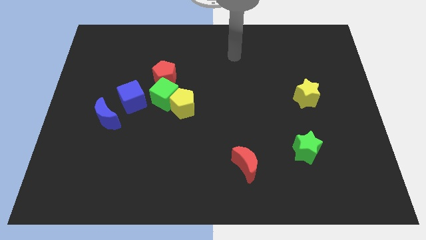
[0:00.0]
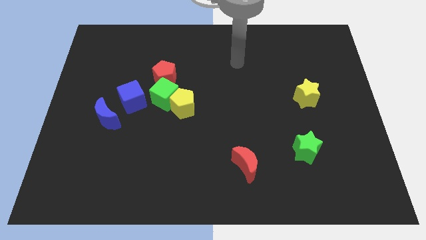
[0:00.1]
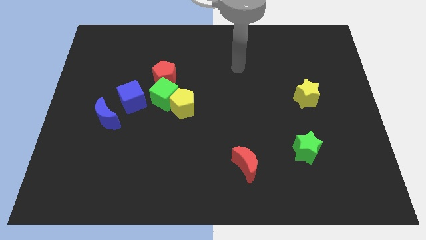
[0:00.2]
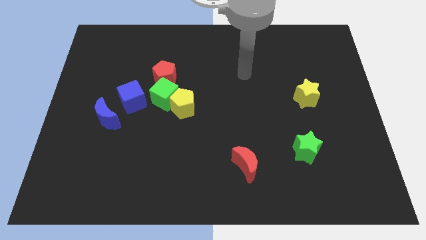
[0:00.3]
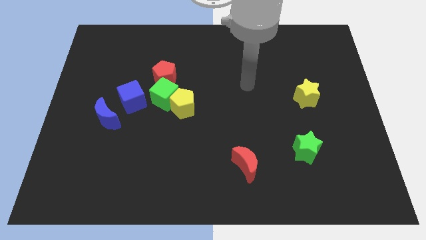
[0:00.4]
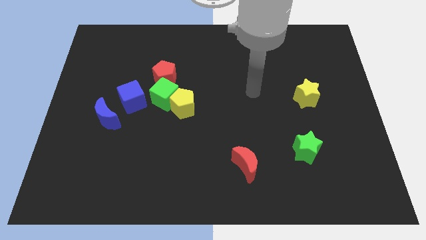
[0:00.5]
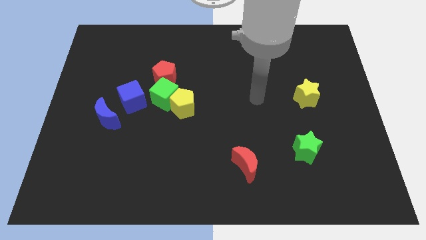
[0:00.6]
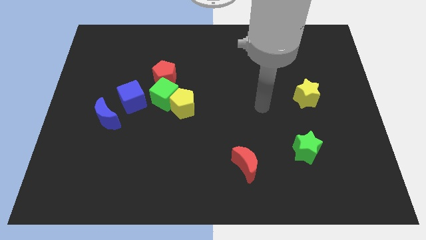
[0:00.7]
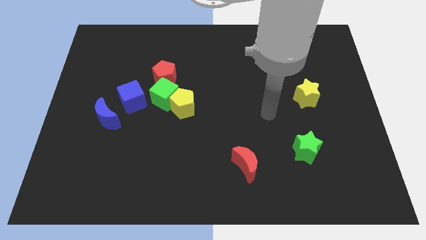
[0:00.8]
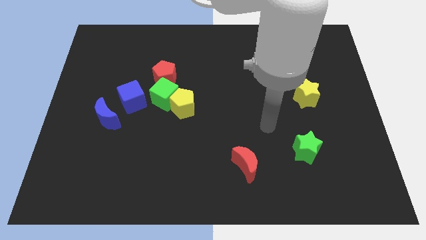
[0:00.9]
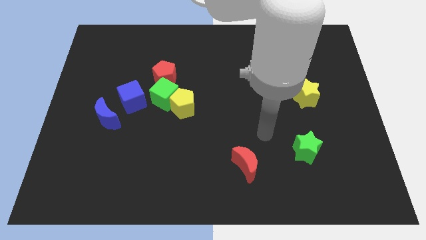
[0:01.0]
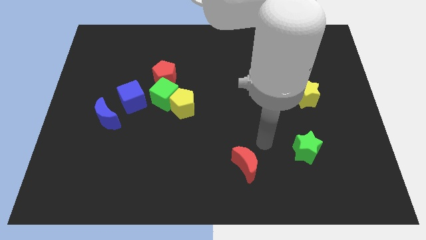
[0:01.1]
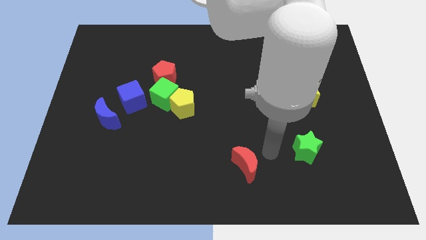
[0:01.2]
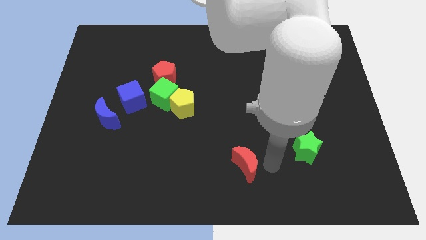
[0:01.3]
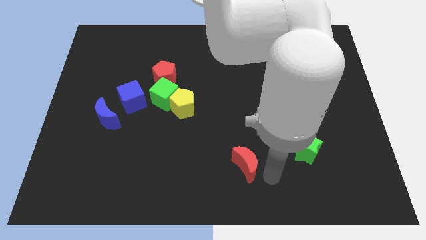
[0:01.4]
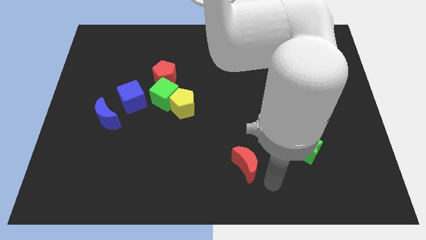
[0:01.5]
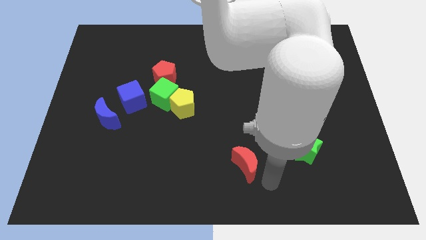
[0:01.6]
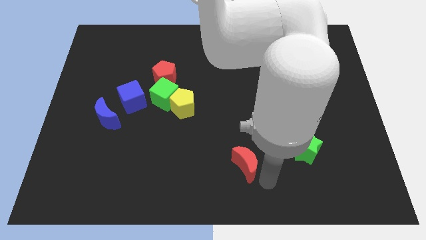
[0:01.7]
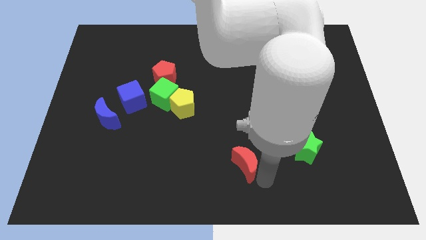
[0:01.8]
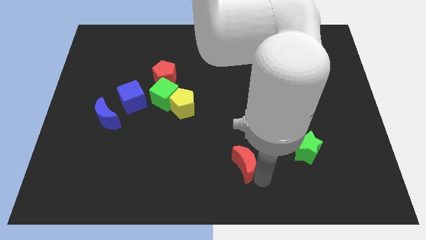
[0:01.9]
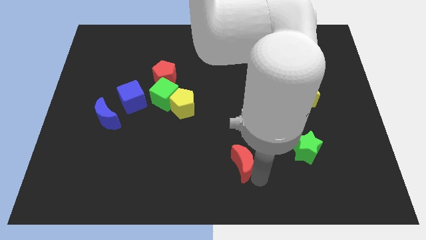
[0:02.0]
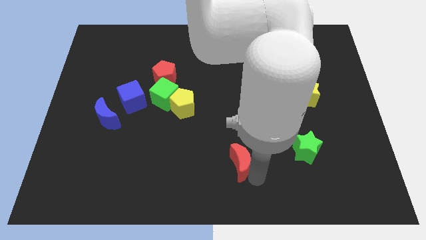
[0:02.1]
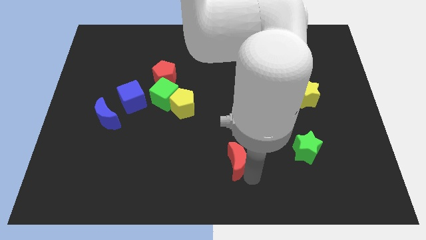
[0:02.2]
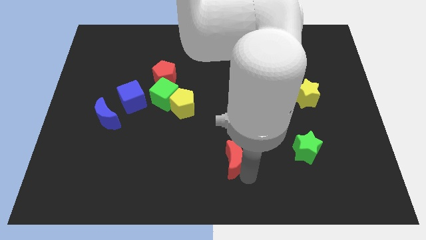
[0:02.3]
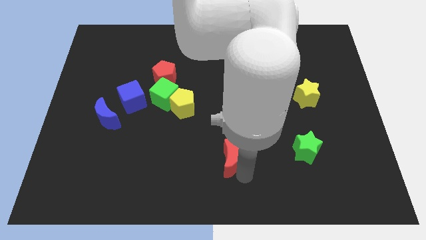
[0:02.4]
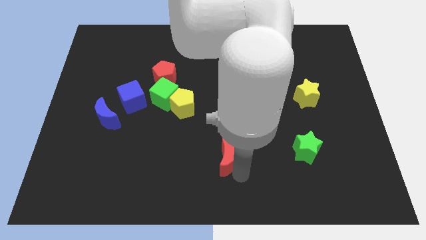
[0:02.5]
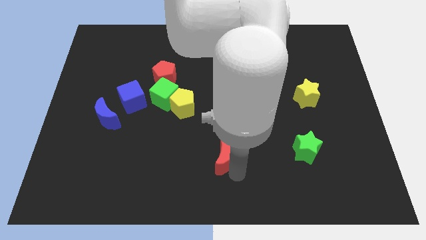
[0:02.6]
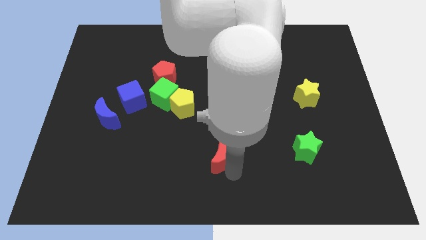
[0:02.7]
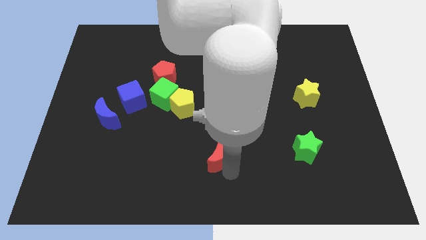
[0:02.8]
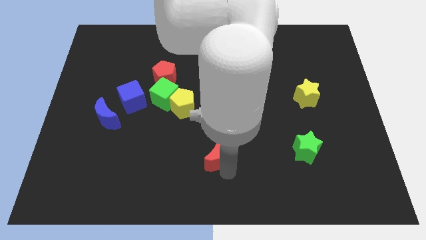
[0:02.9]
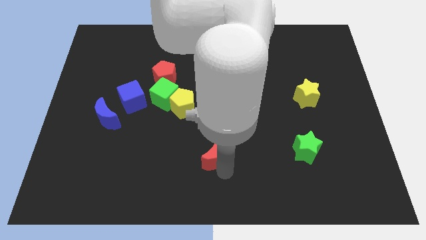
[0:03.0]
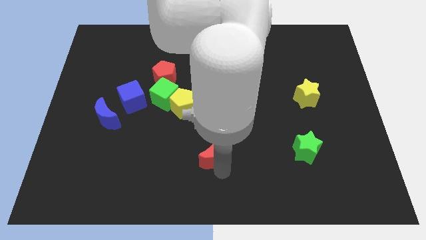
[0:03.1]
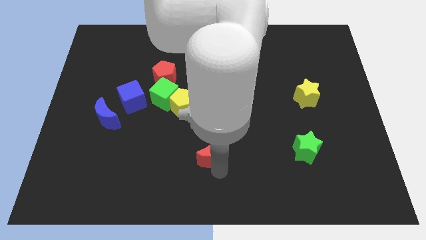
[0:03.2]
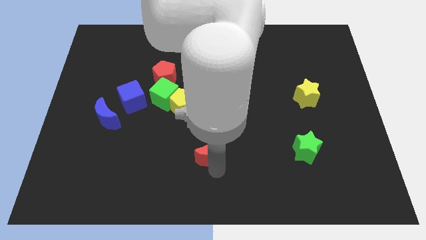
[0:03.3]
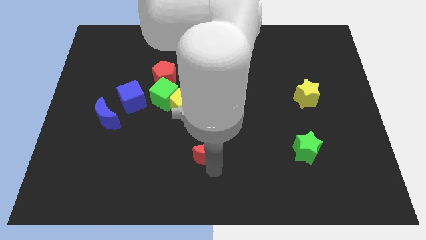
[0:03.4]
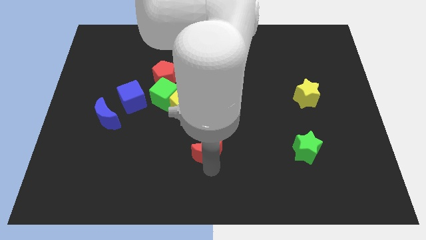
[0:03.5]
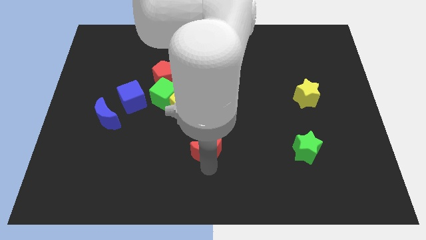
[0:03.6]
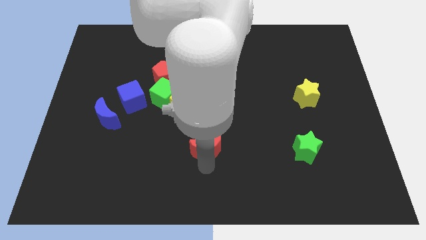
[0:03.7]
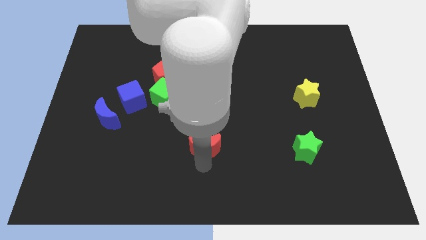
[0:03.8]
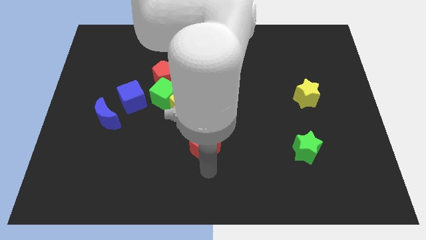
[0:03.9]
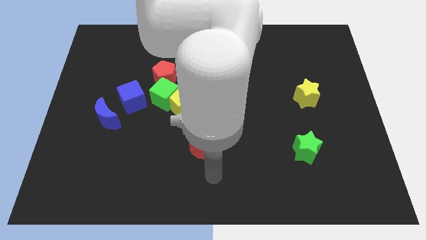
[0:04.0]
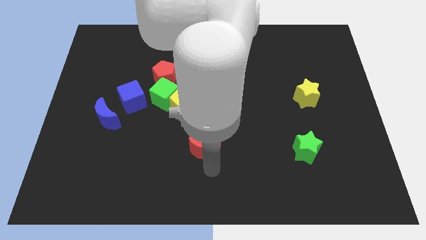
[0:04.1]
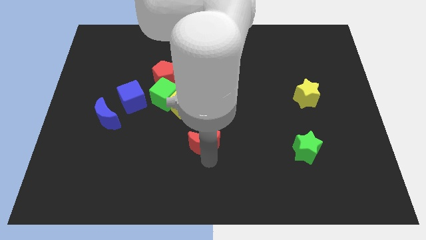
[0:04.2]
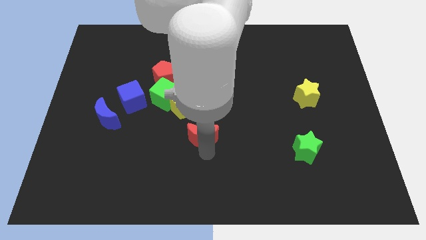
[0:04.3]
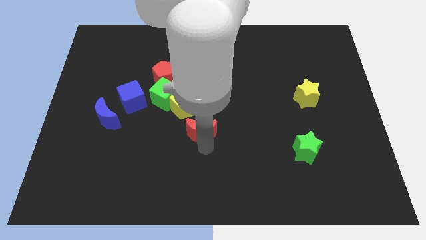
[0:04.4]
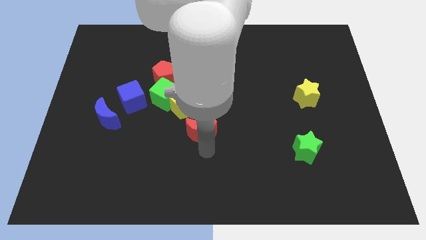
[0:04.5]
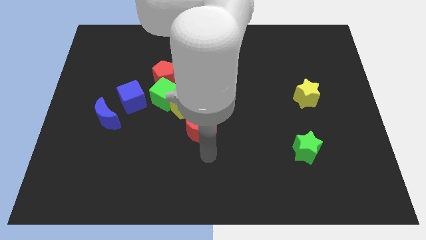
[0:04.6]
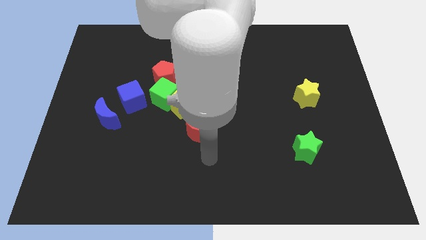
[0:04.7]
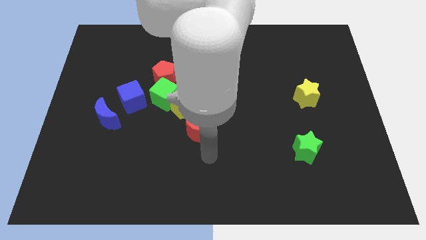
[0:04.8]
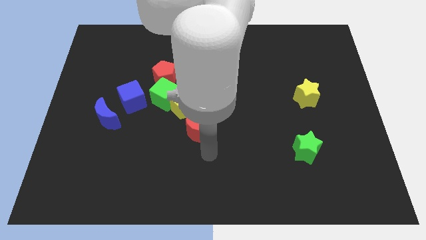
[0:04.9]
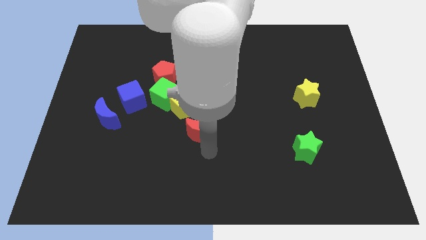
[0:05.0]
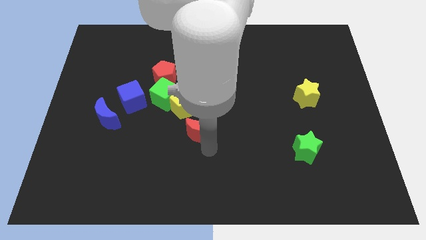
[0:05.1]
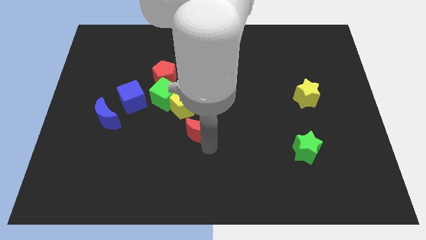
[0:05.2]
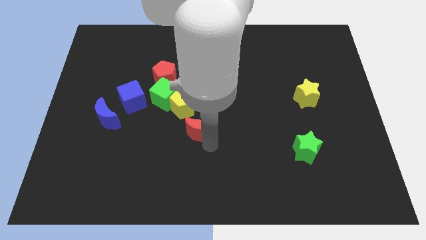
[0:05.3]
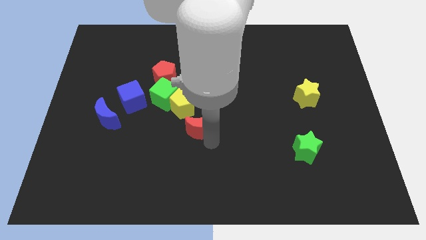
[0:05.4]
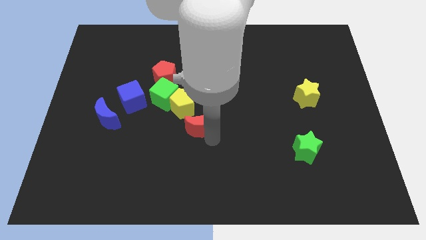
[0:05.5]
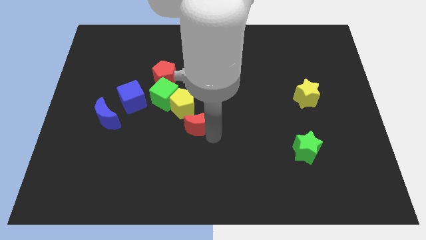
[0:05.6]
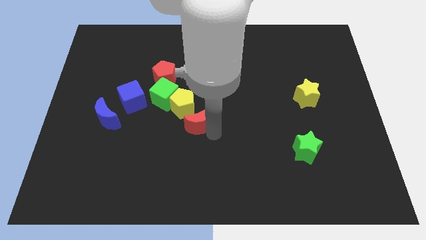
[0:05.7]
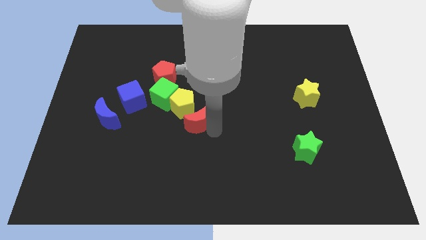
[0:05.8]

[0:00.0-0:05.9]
put the red moon towards the yellow pentagon

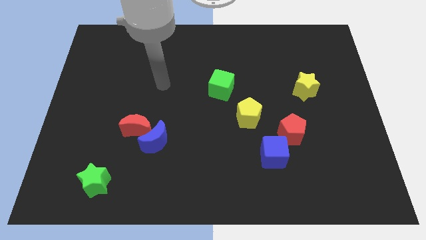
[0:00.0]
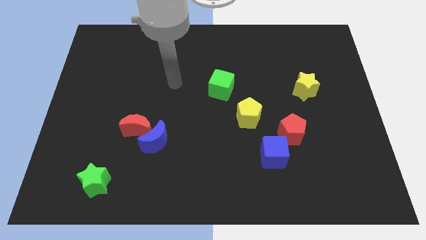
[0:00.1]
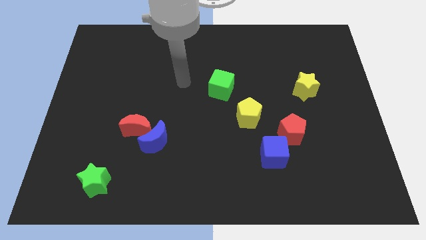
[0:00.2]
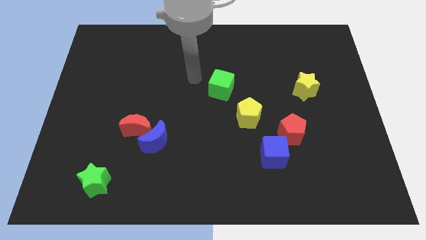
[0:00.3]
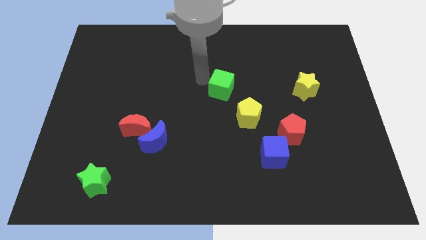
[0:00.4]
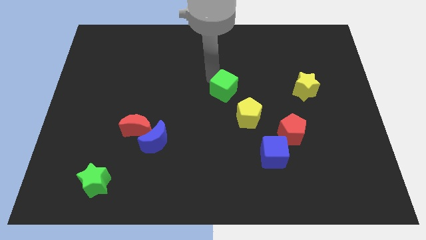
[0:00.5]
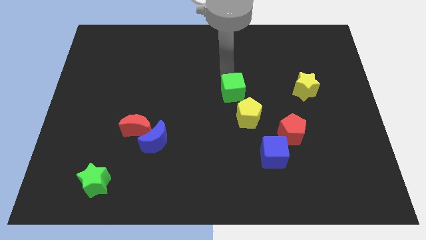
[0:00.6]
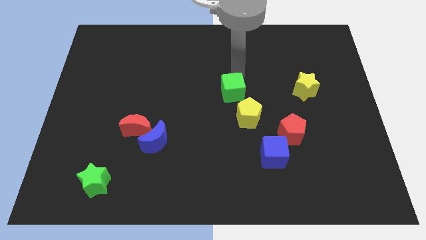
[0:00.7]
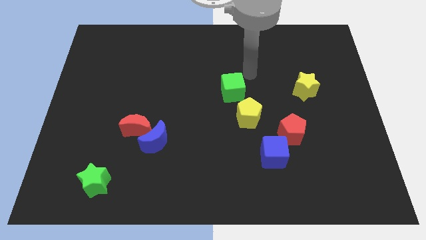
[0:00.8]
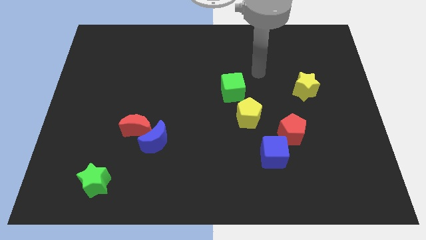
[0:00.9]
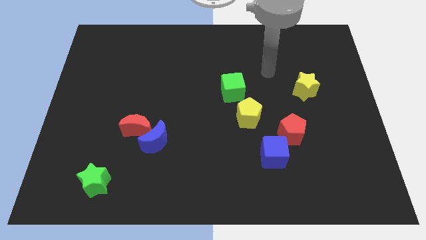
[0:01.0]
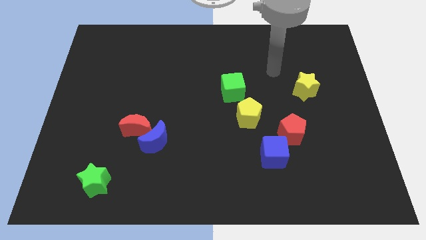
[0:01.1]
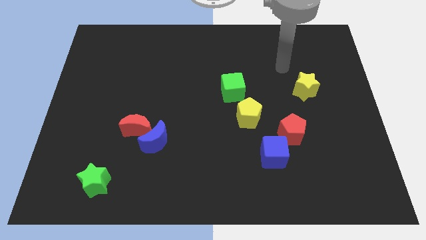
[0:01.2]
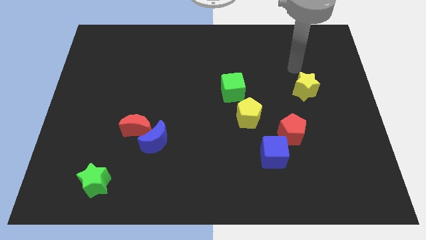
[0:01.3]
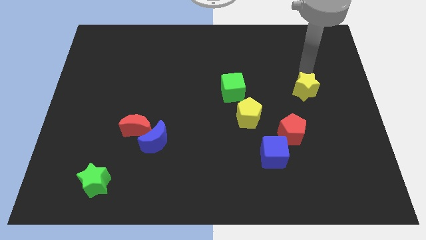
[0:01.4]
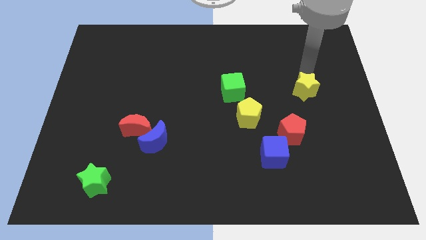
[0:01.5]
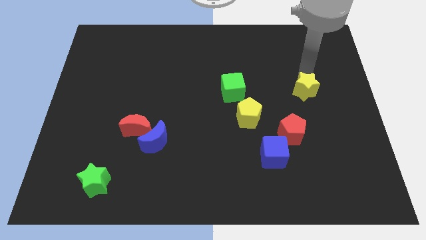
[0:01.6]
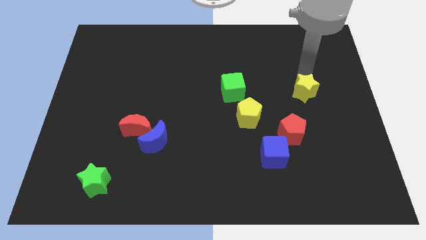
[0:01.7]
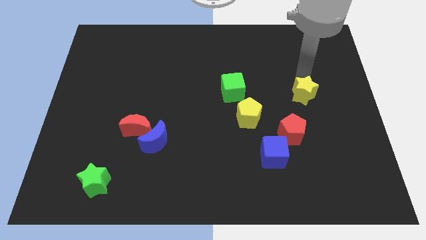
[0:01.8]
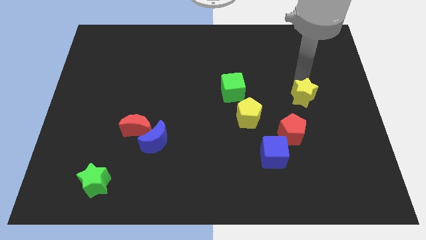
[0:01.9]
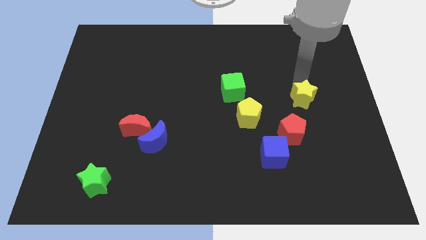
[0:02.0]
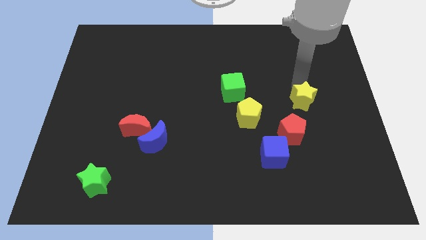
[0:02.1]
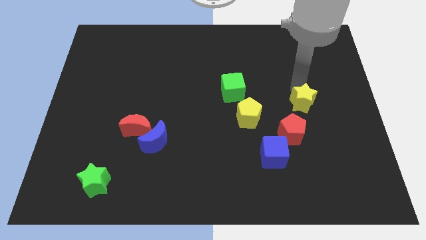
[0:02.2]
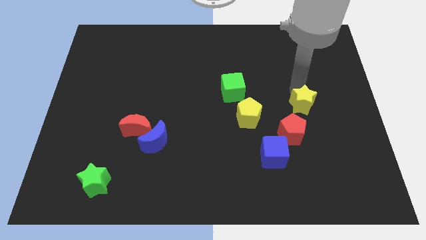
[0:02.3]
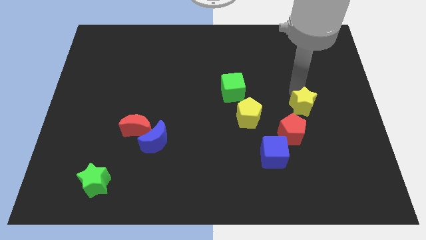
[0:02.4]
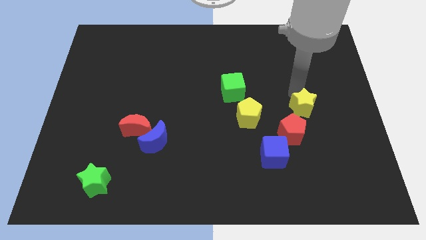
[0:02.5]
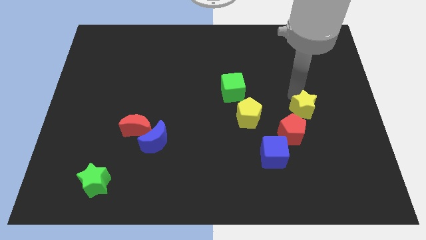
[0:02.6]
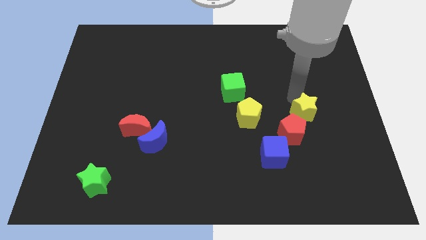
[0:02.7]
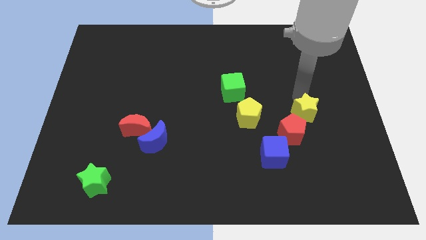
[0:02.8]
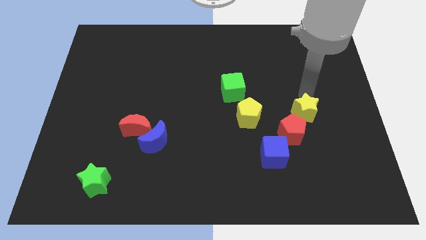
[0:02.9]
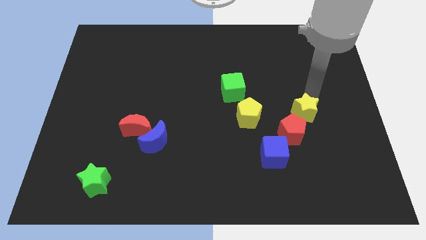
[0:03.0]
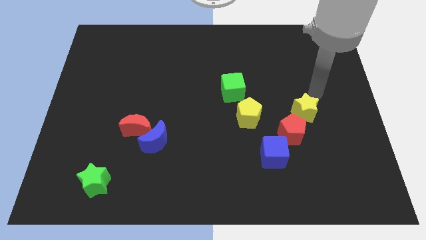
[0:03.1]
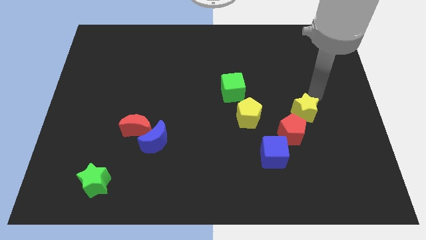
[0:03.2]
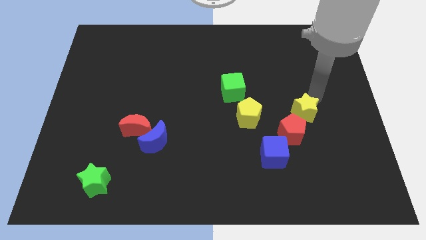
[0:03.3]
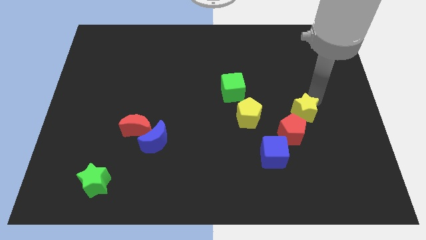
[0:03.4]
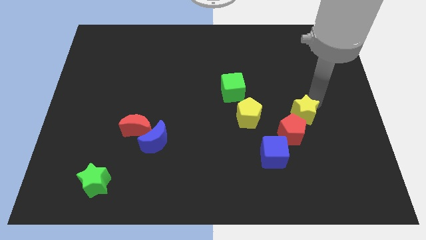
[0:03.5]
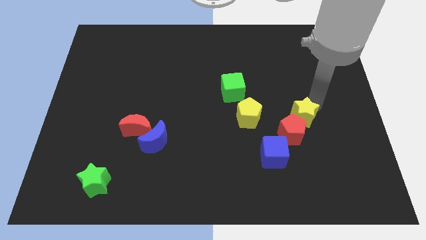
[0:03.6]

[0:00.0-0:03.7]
put the yellow star close to the red pentagon
